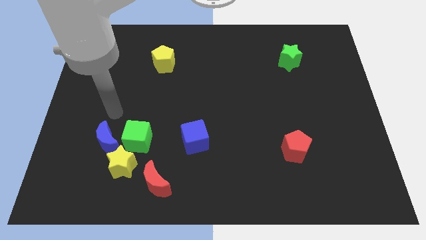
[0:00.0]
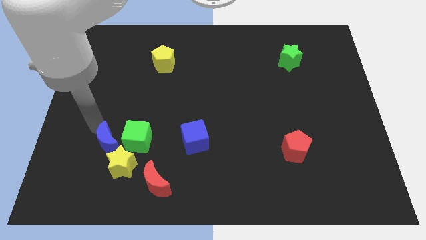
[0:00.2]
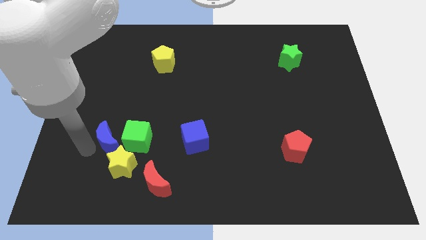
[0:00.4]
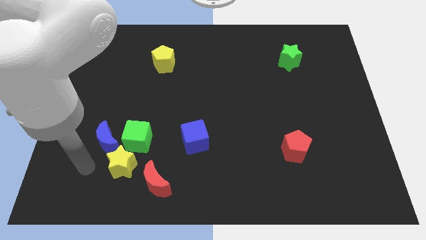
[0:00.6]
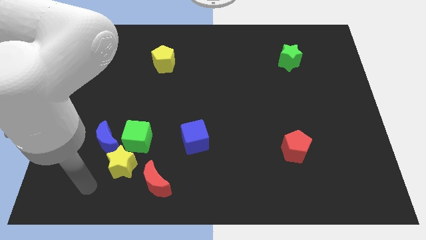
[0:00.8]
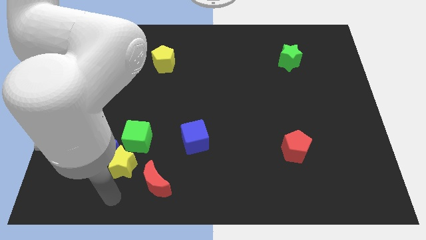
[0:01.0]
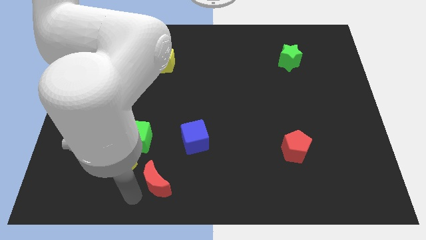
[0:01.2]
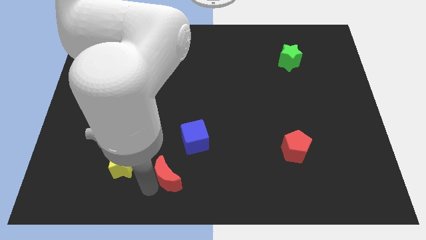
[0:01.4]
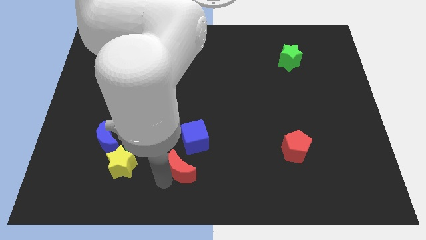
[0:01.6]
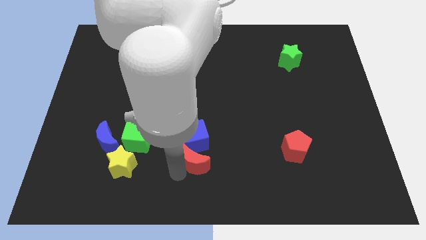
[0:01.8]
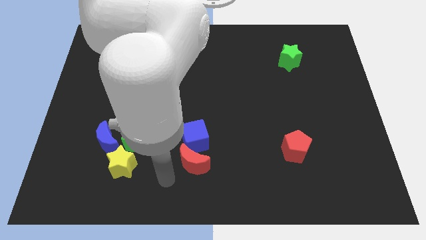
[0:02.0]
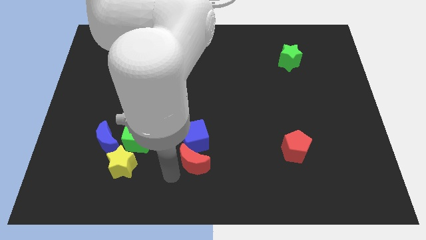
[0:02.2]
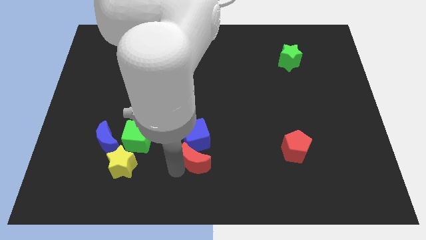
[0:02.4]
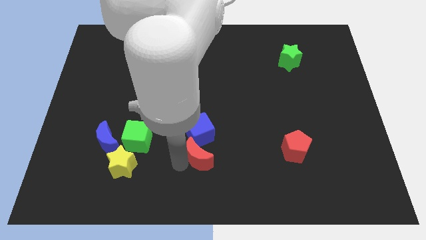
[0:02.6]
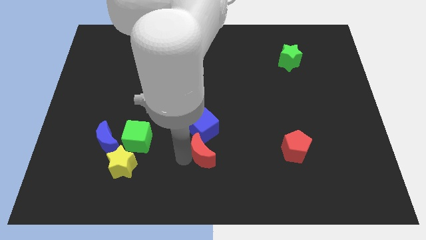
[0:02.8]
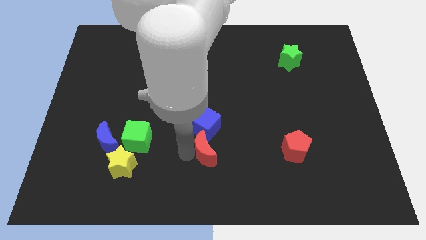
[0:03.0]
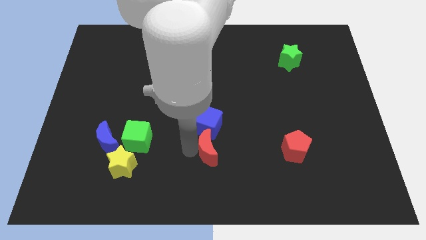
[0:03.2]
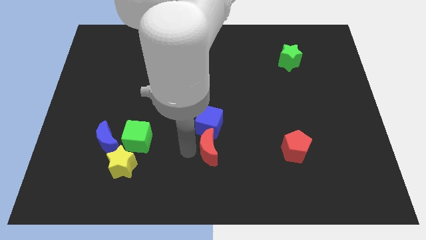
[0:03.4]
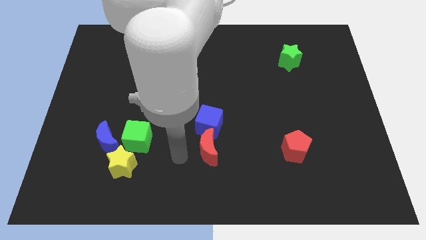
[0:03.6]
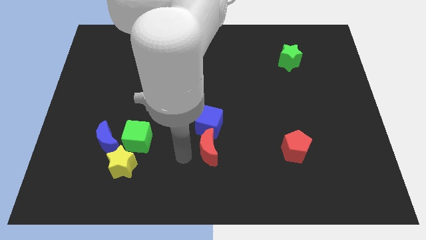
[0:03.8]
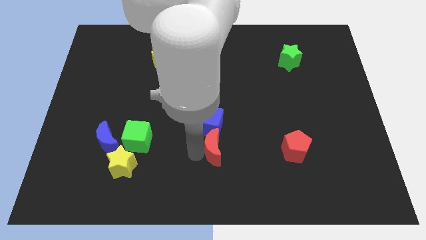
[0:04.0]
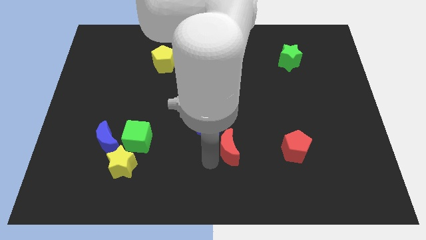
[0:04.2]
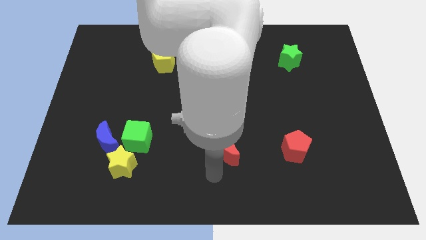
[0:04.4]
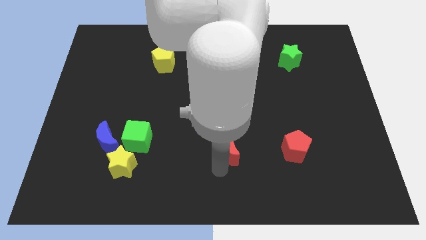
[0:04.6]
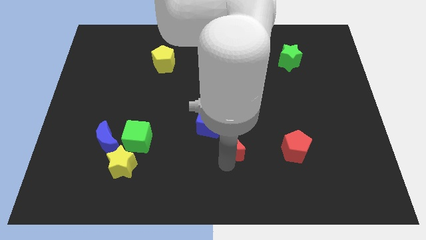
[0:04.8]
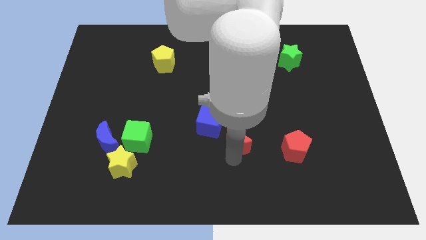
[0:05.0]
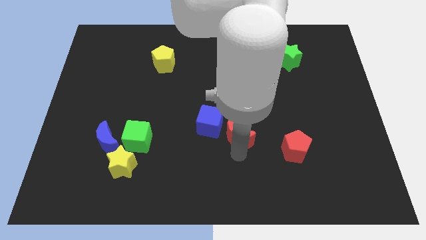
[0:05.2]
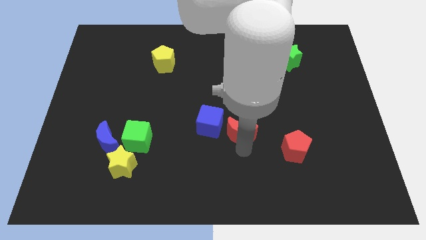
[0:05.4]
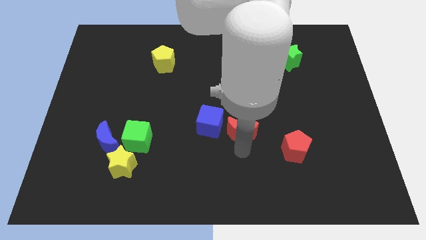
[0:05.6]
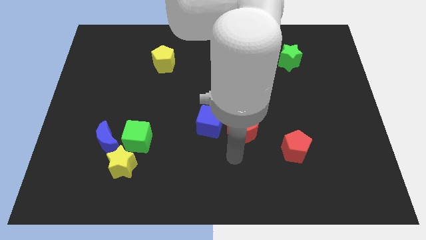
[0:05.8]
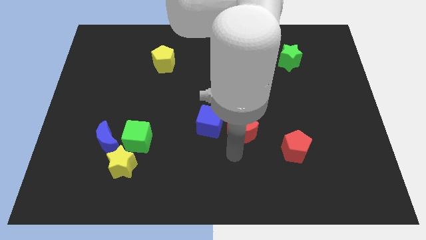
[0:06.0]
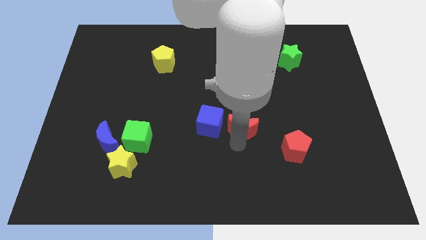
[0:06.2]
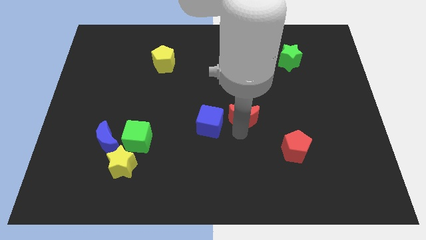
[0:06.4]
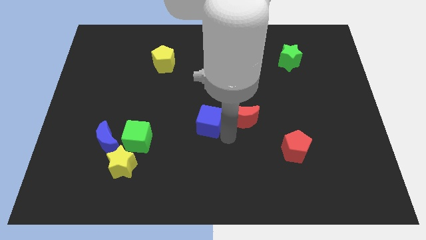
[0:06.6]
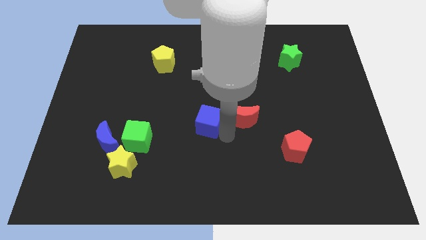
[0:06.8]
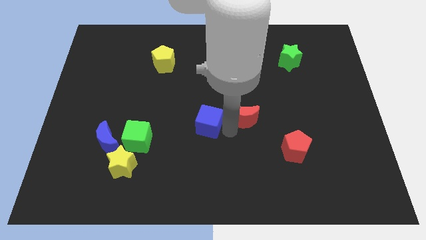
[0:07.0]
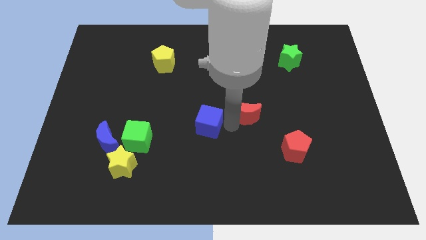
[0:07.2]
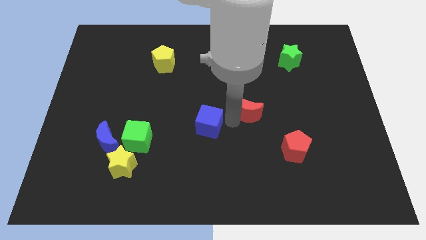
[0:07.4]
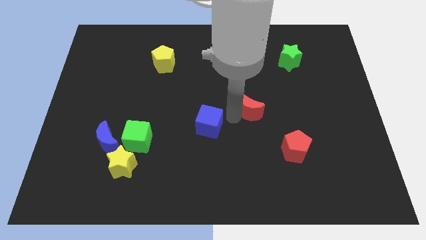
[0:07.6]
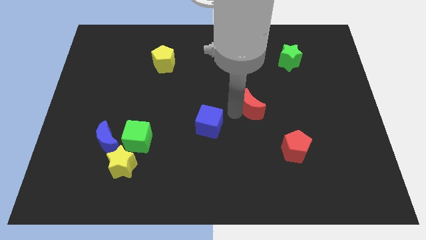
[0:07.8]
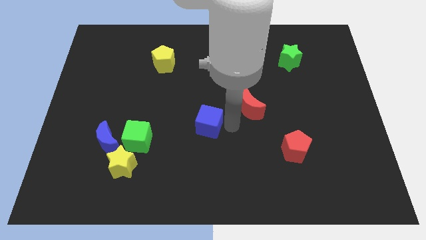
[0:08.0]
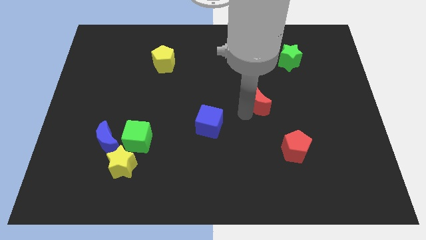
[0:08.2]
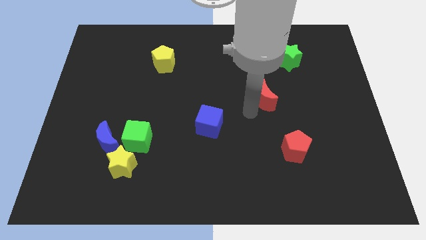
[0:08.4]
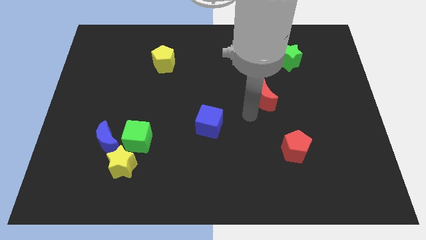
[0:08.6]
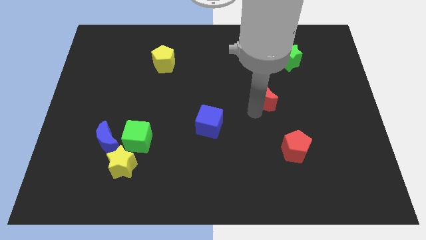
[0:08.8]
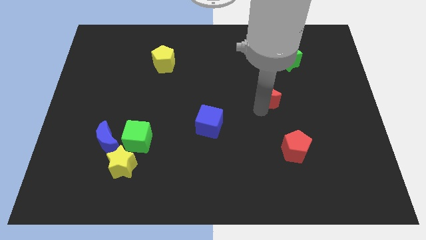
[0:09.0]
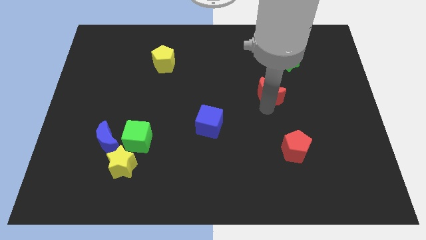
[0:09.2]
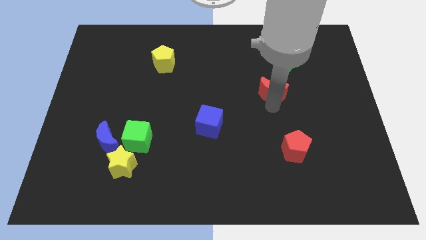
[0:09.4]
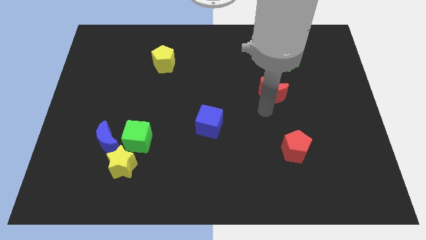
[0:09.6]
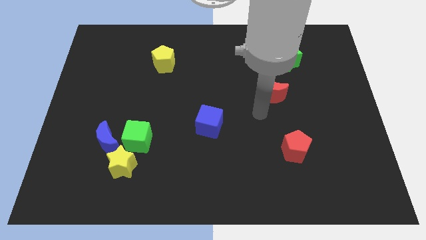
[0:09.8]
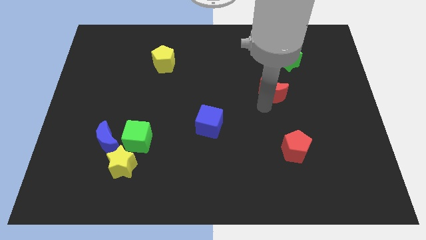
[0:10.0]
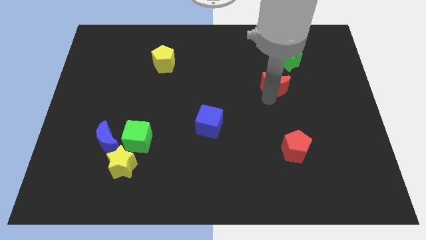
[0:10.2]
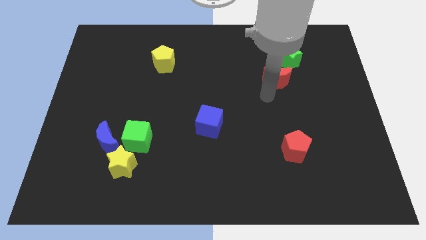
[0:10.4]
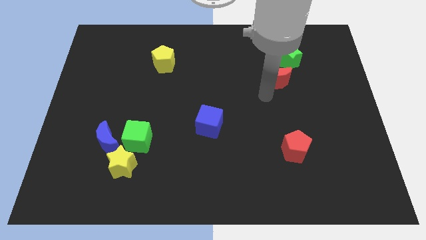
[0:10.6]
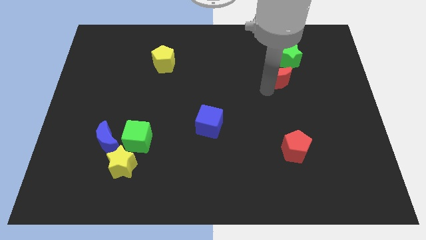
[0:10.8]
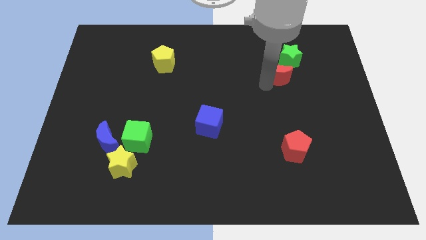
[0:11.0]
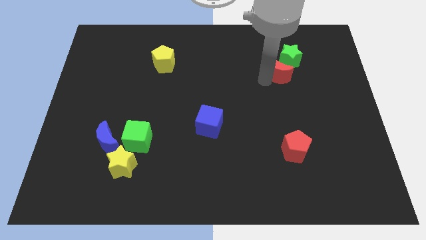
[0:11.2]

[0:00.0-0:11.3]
slide the red moon towards the green star

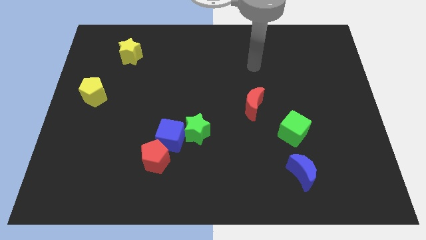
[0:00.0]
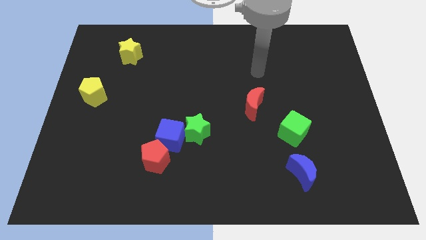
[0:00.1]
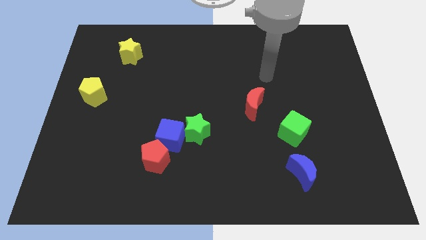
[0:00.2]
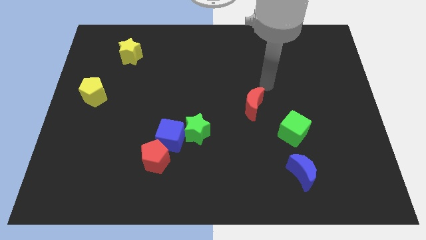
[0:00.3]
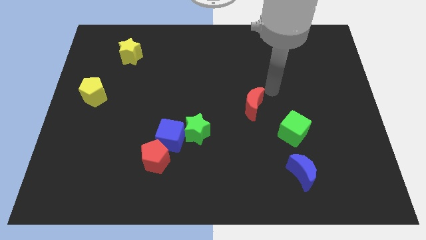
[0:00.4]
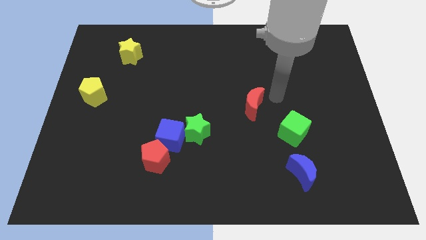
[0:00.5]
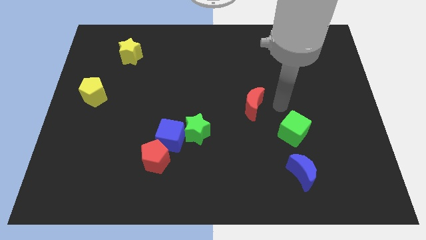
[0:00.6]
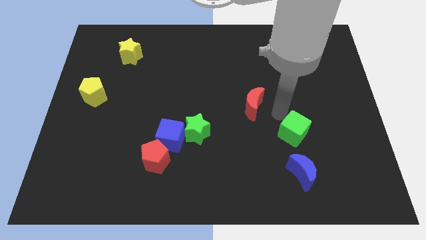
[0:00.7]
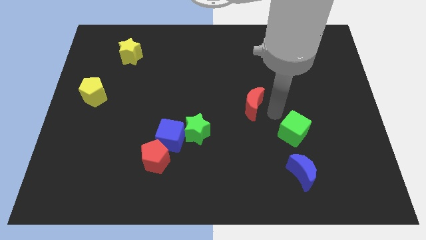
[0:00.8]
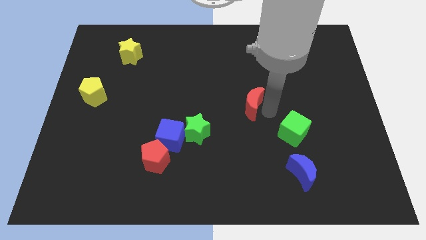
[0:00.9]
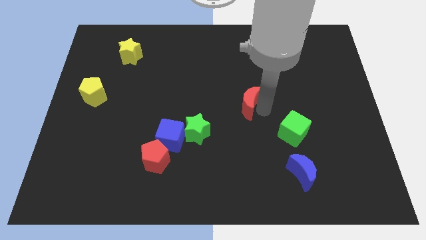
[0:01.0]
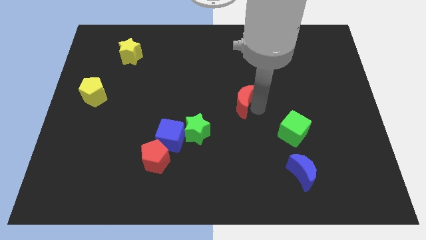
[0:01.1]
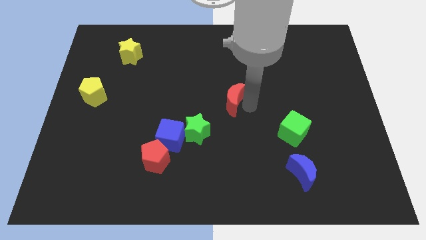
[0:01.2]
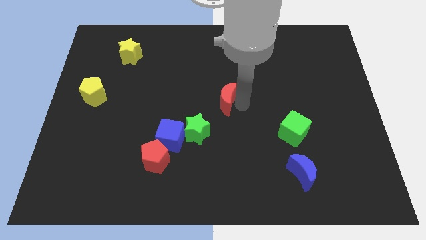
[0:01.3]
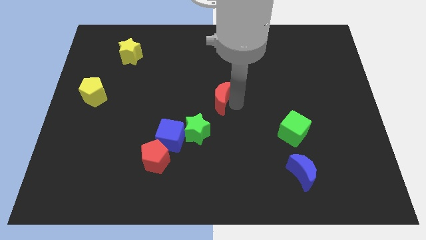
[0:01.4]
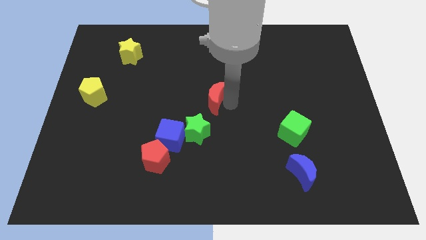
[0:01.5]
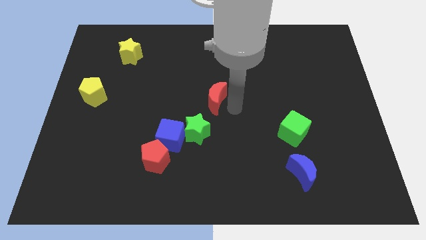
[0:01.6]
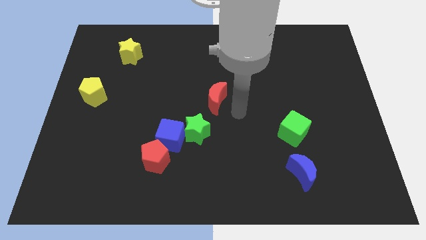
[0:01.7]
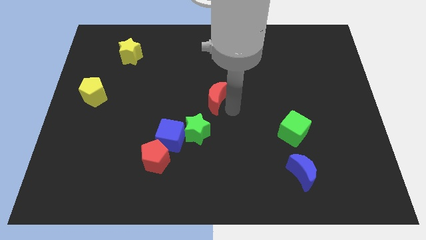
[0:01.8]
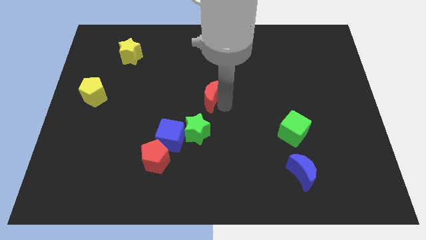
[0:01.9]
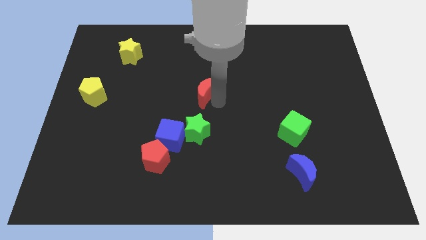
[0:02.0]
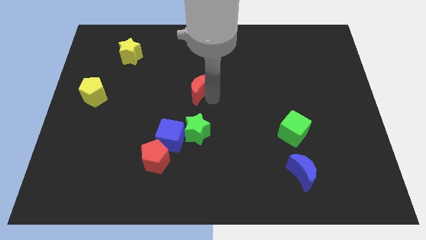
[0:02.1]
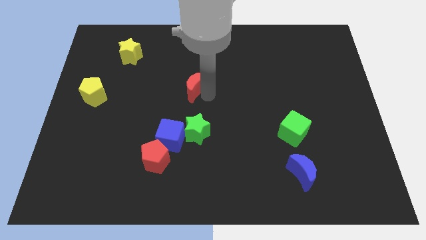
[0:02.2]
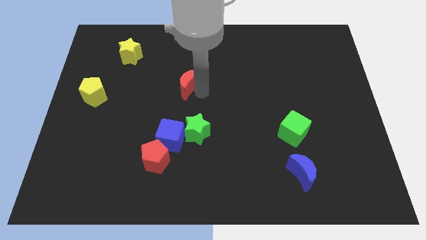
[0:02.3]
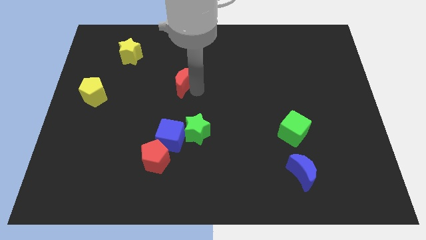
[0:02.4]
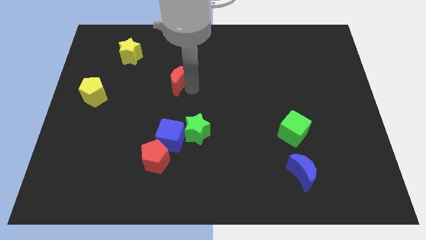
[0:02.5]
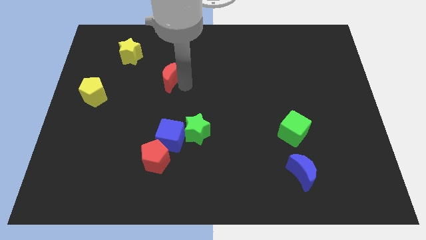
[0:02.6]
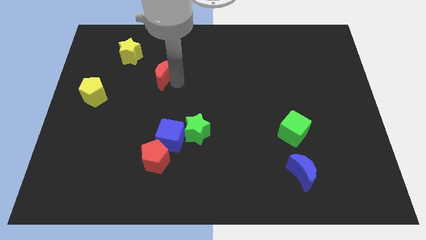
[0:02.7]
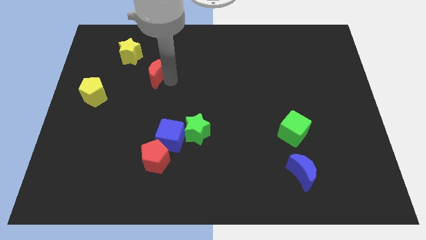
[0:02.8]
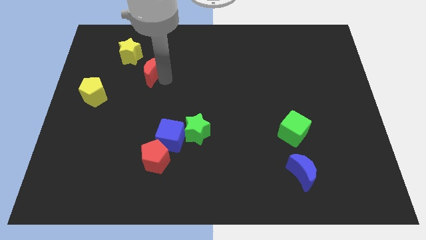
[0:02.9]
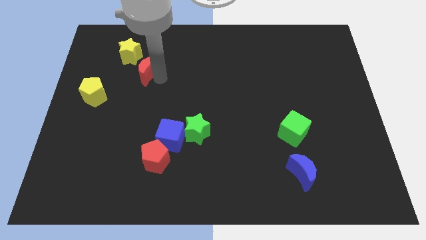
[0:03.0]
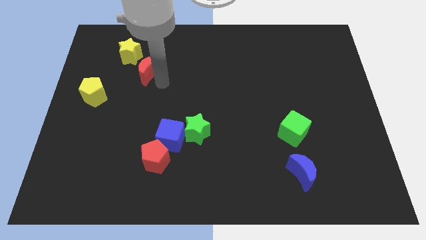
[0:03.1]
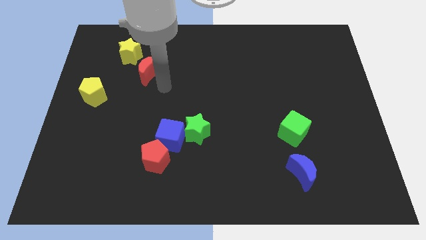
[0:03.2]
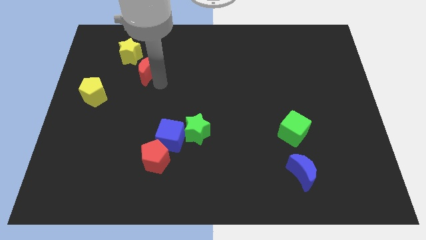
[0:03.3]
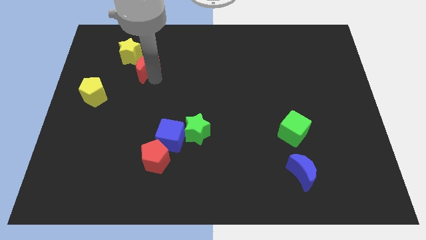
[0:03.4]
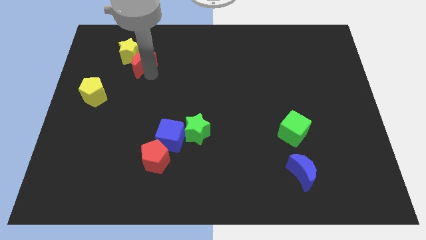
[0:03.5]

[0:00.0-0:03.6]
move the red moon to the yellow star
